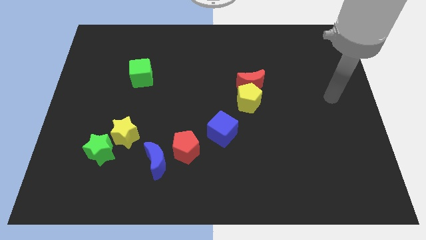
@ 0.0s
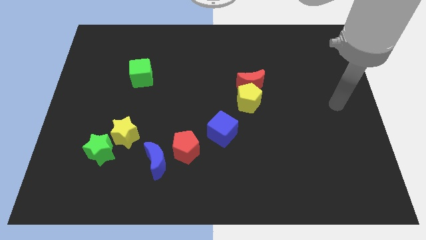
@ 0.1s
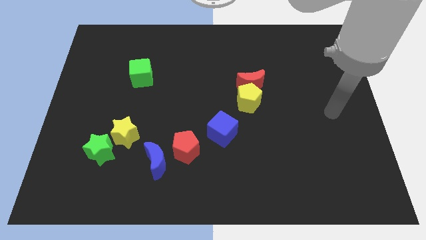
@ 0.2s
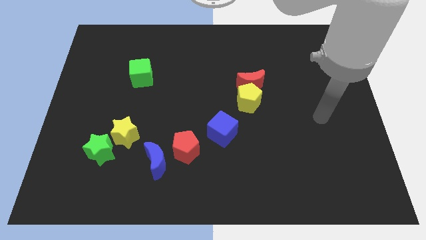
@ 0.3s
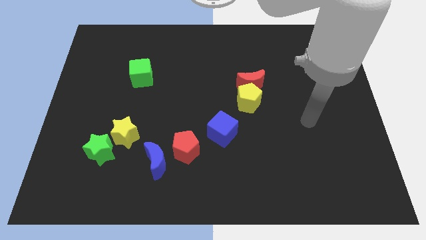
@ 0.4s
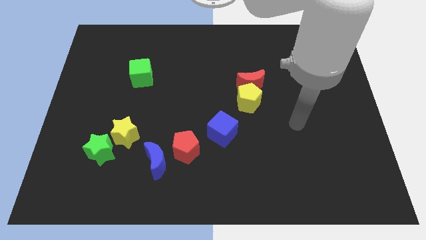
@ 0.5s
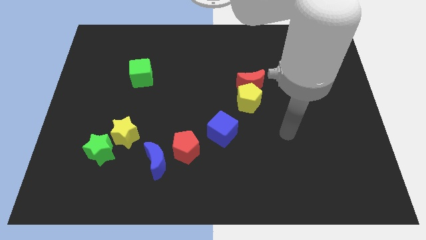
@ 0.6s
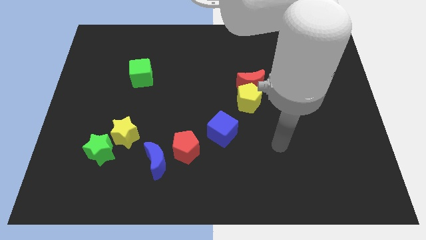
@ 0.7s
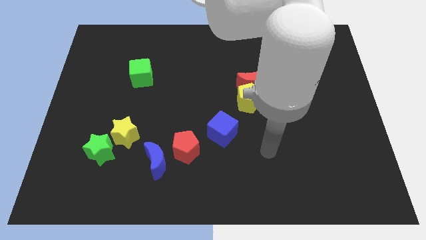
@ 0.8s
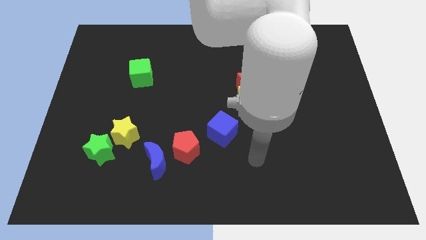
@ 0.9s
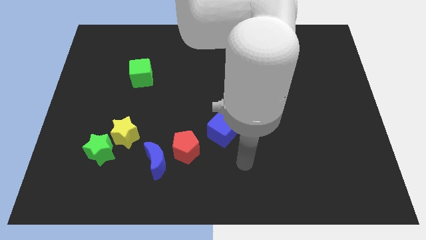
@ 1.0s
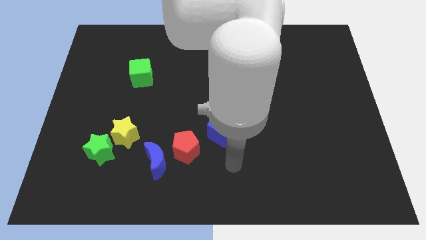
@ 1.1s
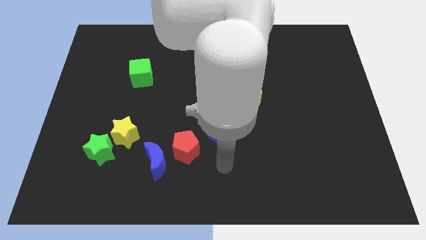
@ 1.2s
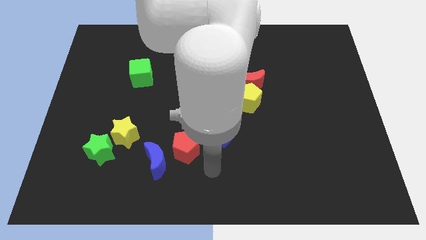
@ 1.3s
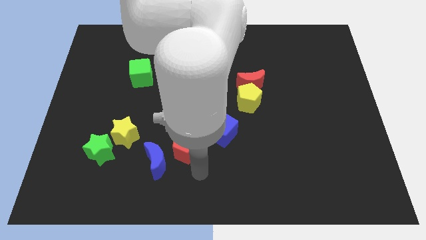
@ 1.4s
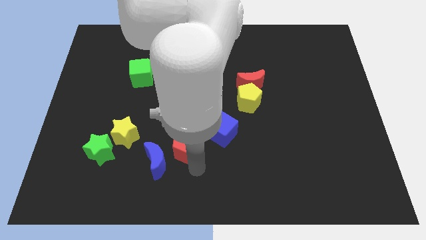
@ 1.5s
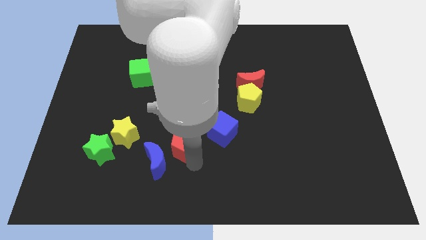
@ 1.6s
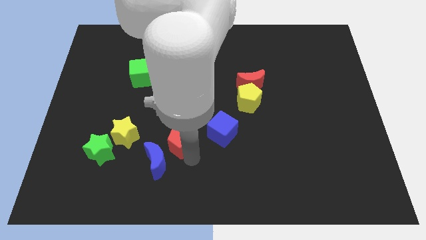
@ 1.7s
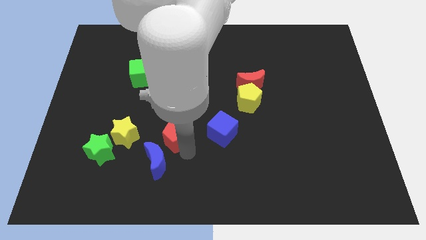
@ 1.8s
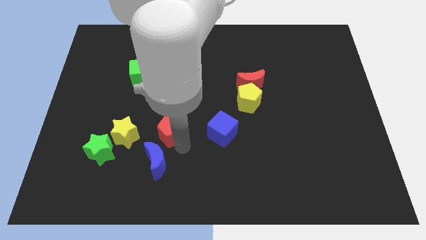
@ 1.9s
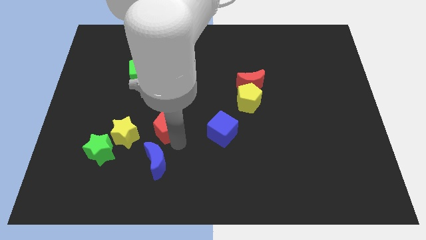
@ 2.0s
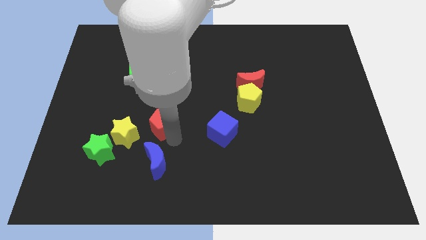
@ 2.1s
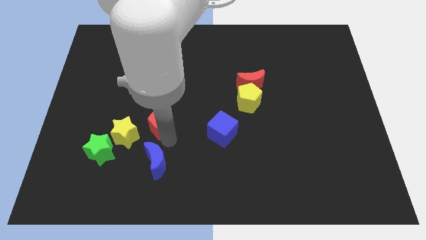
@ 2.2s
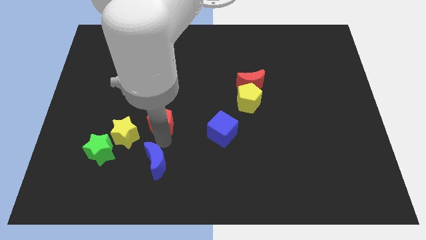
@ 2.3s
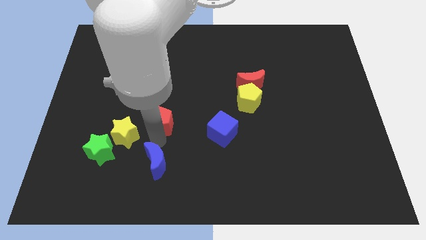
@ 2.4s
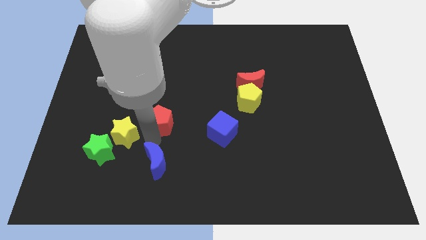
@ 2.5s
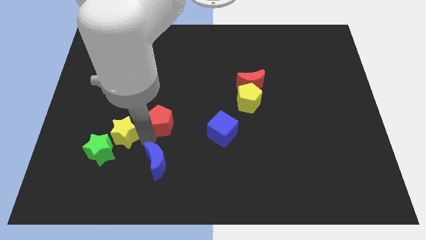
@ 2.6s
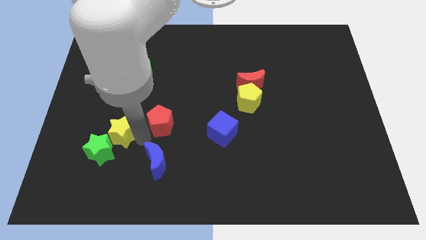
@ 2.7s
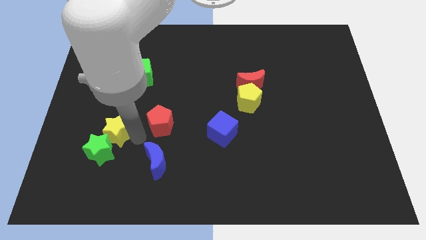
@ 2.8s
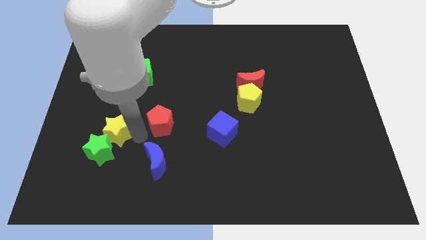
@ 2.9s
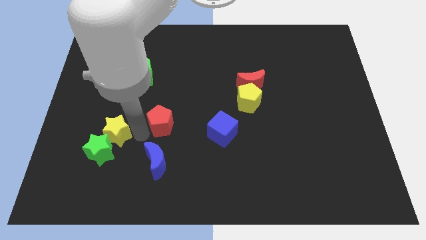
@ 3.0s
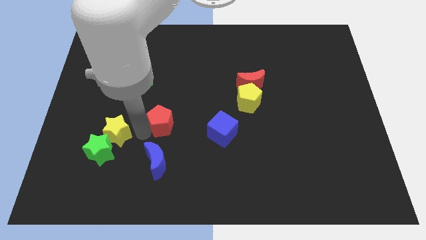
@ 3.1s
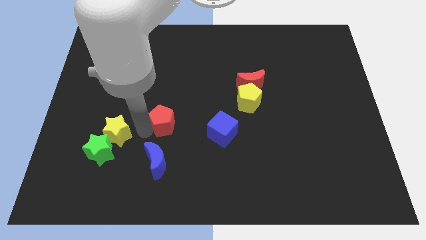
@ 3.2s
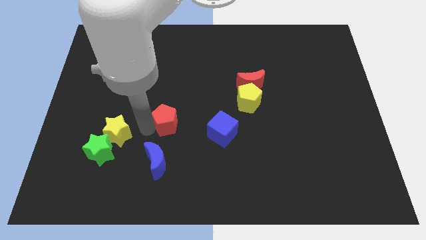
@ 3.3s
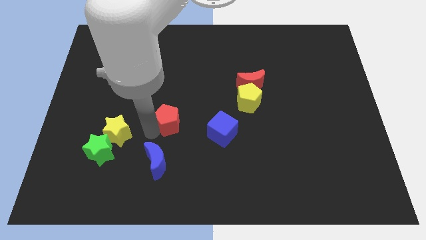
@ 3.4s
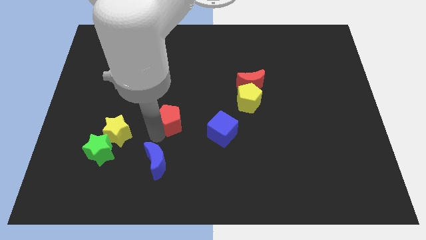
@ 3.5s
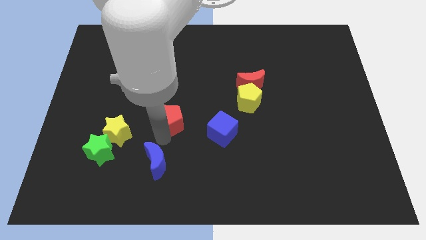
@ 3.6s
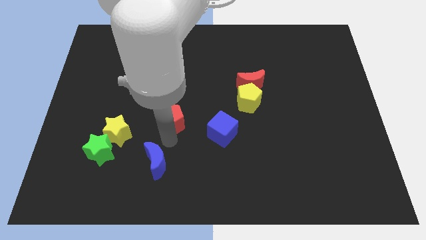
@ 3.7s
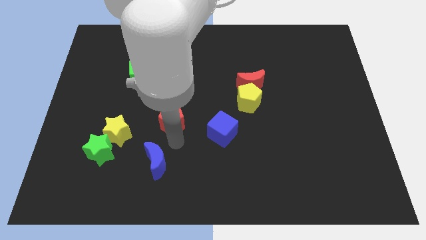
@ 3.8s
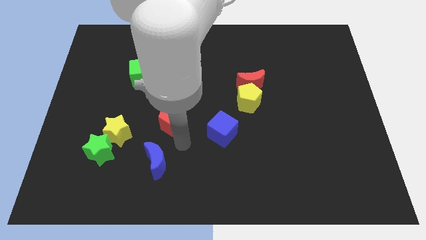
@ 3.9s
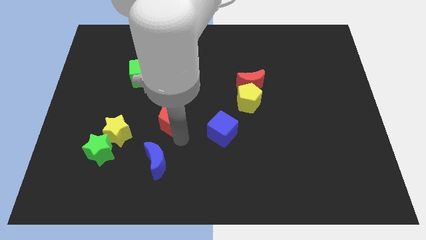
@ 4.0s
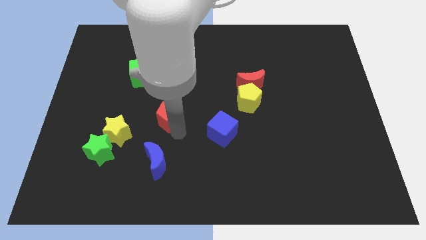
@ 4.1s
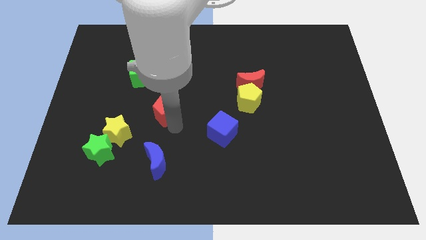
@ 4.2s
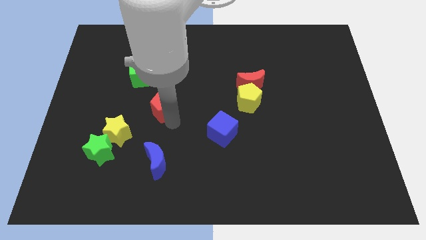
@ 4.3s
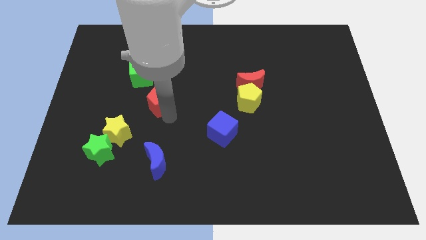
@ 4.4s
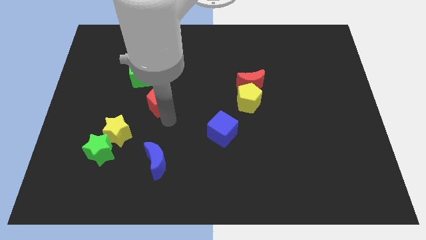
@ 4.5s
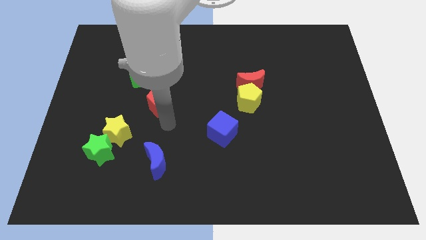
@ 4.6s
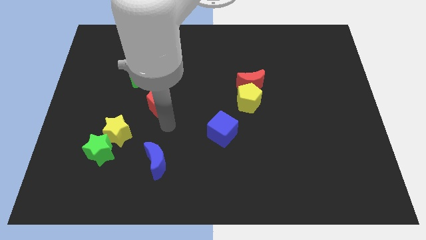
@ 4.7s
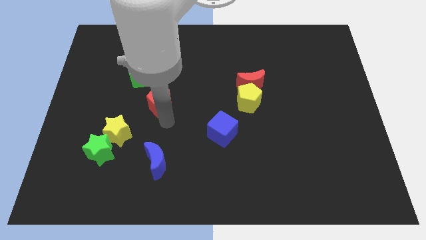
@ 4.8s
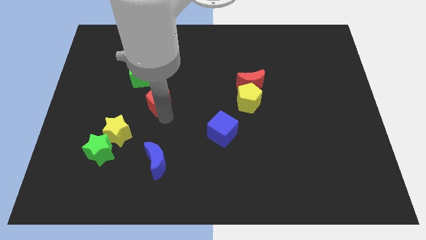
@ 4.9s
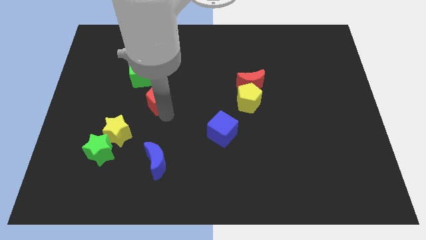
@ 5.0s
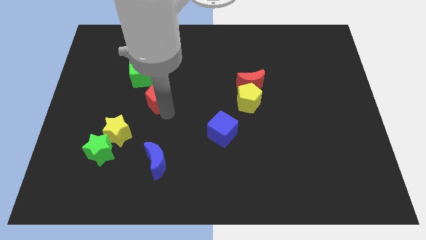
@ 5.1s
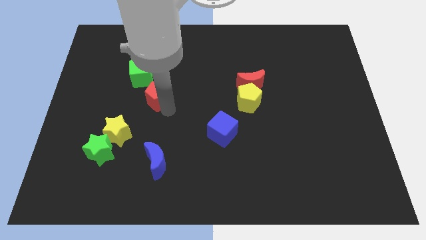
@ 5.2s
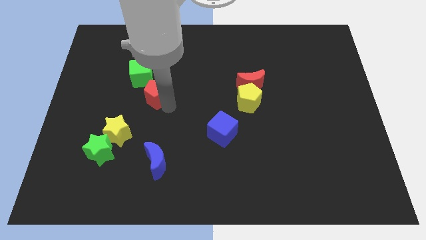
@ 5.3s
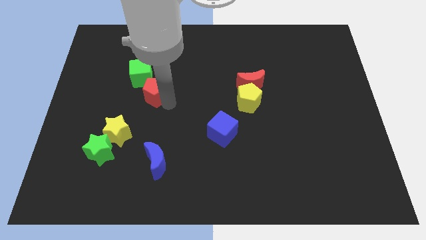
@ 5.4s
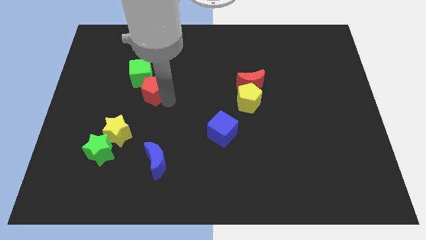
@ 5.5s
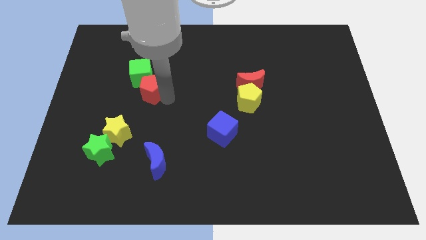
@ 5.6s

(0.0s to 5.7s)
slide the red pentagon towards the green cube
